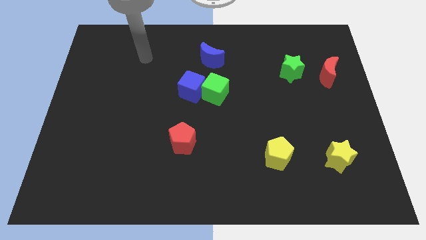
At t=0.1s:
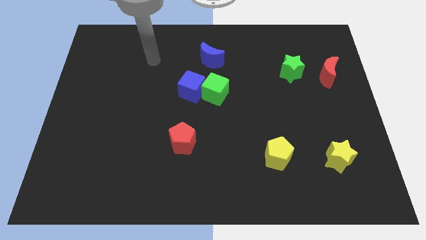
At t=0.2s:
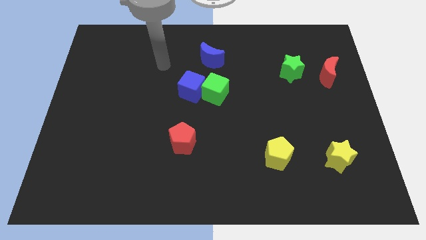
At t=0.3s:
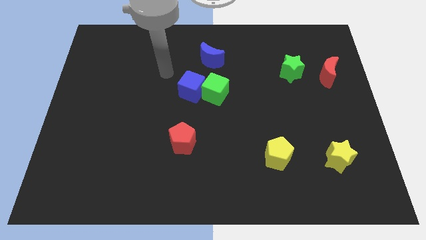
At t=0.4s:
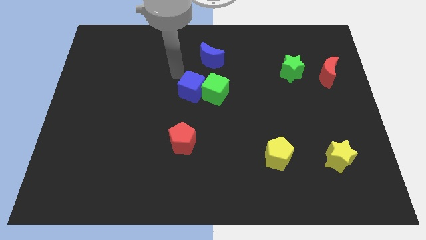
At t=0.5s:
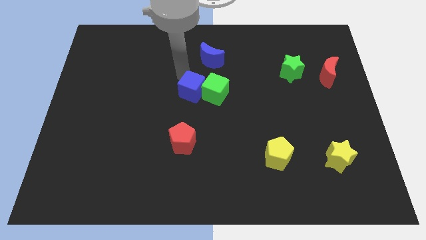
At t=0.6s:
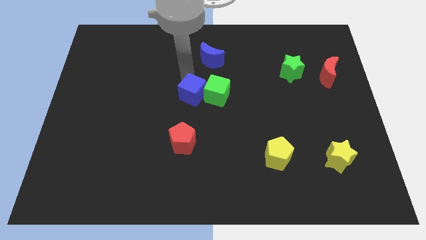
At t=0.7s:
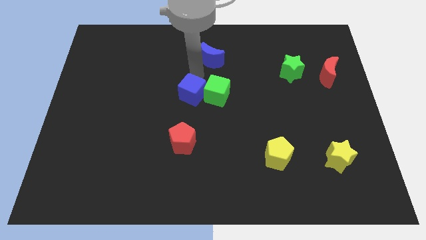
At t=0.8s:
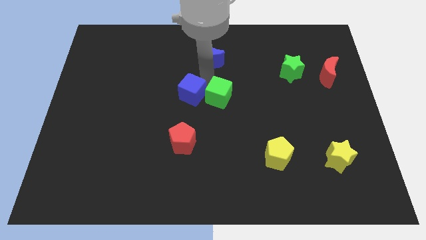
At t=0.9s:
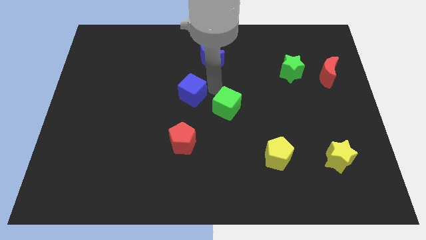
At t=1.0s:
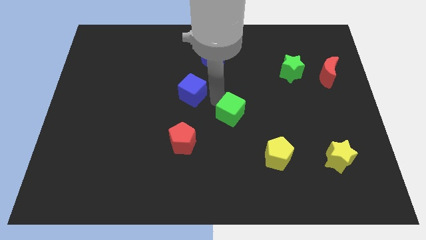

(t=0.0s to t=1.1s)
pull the blue cube apart from the green cube

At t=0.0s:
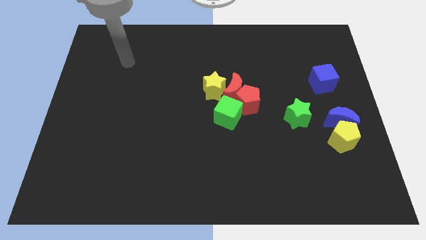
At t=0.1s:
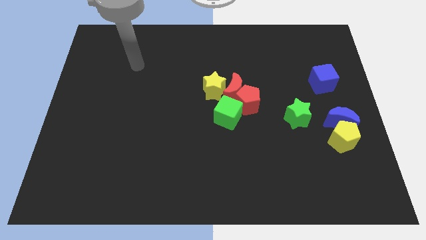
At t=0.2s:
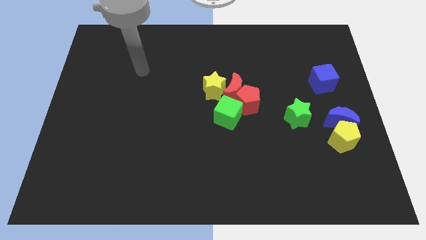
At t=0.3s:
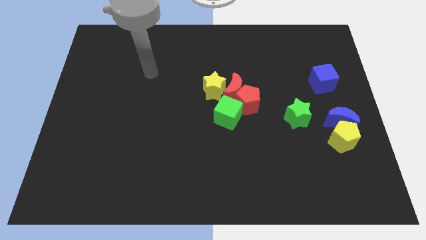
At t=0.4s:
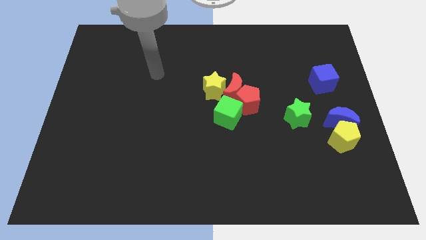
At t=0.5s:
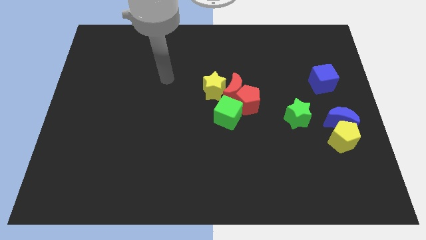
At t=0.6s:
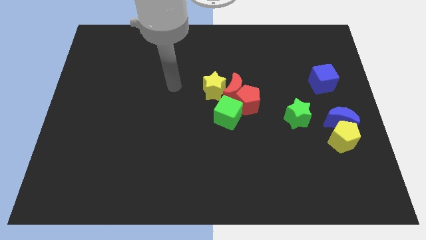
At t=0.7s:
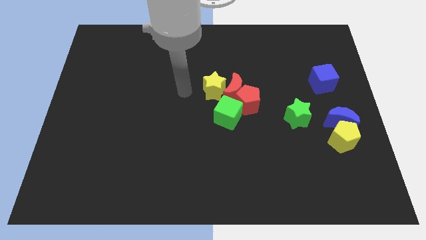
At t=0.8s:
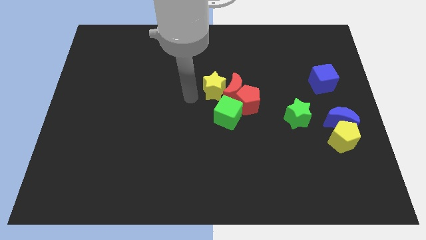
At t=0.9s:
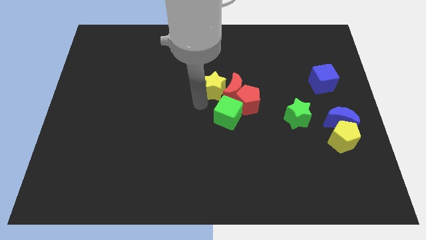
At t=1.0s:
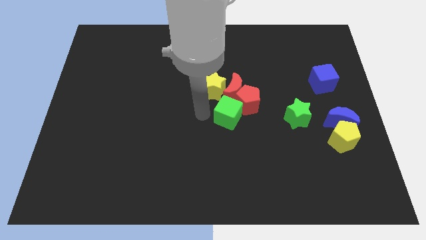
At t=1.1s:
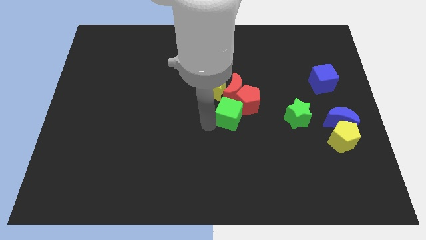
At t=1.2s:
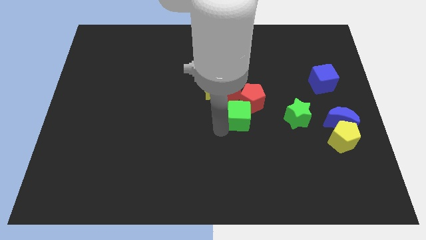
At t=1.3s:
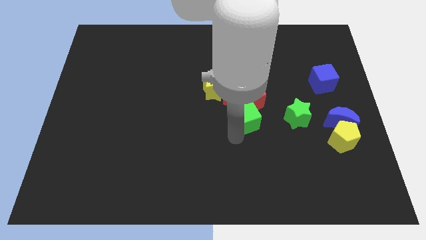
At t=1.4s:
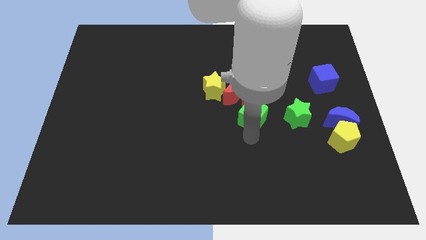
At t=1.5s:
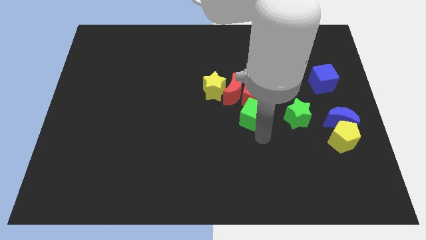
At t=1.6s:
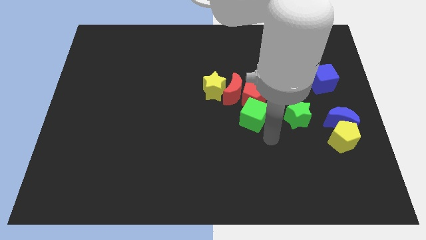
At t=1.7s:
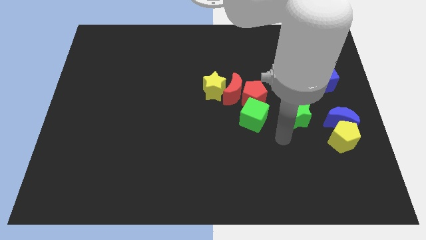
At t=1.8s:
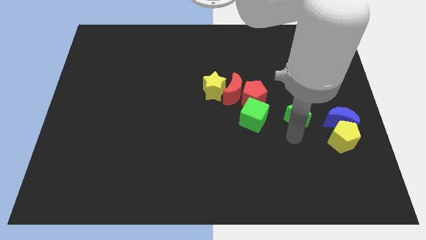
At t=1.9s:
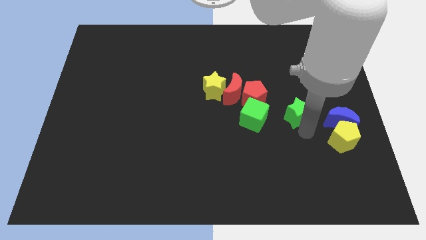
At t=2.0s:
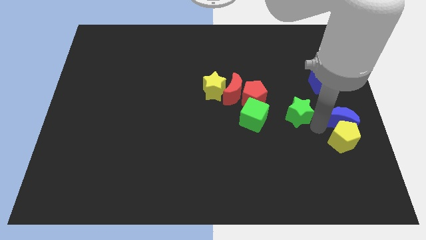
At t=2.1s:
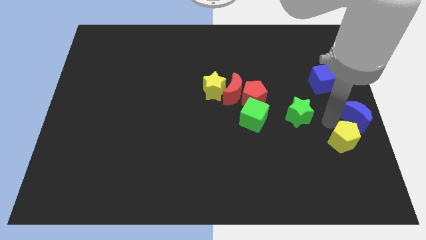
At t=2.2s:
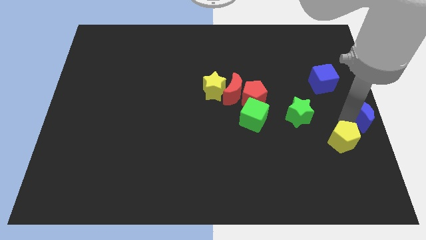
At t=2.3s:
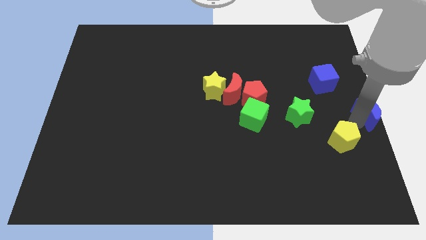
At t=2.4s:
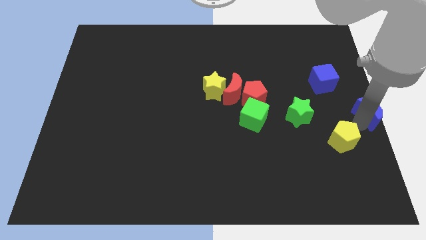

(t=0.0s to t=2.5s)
move the yellow pentagon away from the blue moon

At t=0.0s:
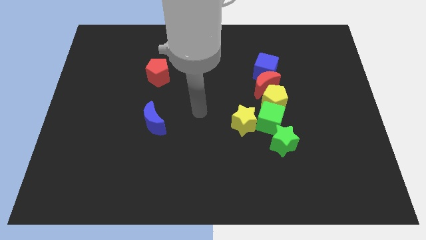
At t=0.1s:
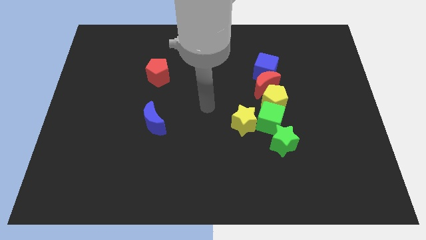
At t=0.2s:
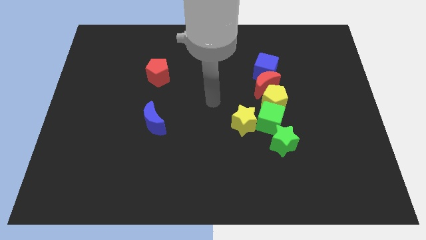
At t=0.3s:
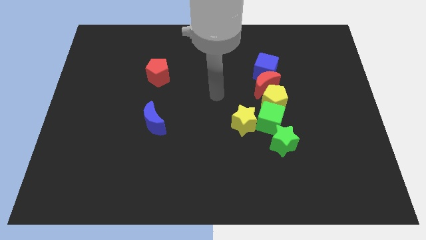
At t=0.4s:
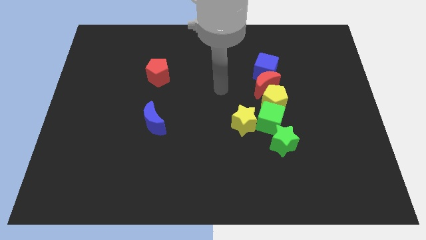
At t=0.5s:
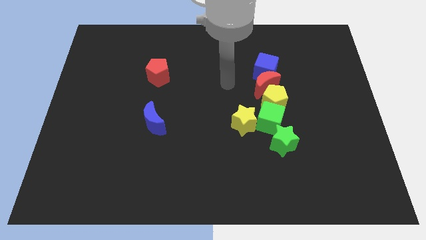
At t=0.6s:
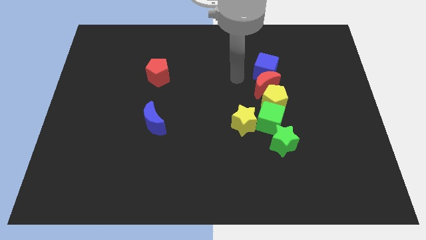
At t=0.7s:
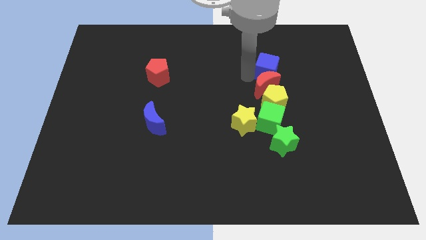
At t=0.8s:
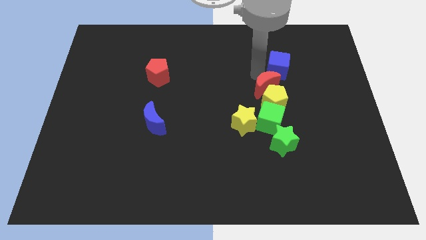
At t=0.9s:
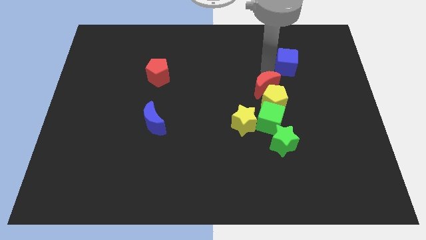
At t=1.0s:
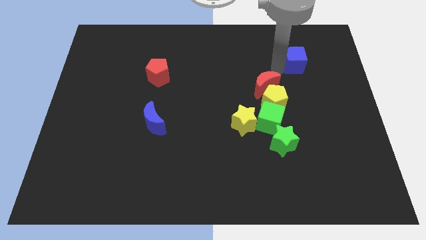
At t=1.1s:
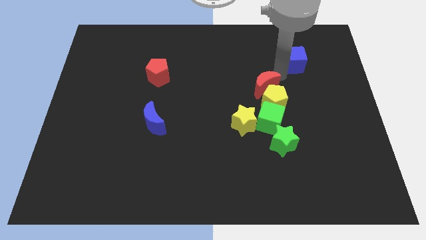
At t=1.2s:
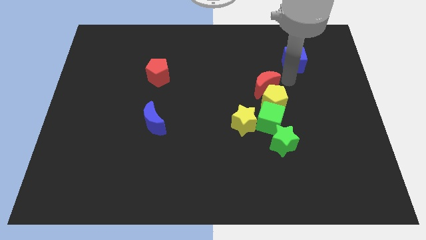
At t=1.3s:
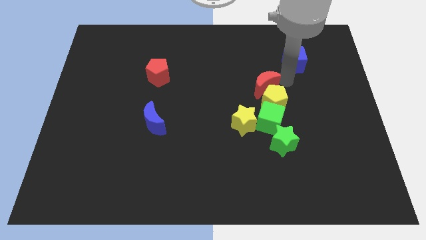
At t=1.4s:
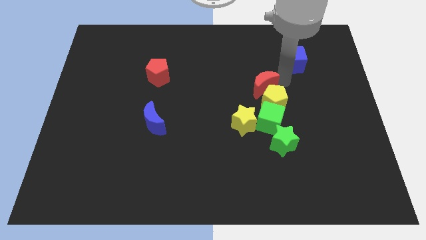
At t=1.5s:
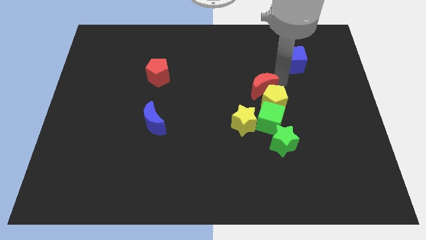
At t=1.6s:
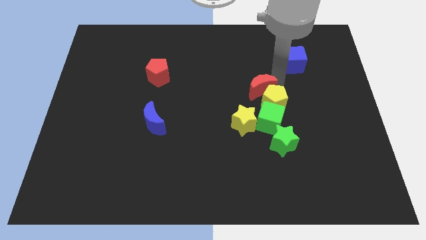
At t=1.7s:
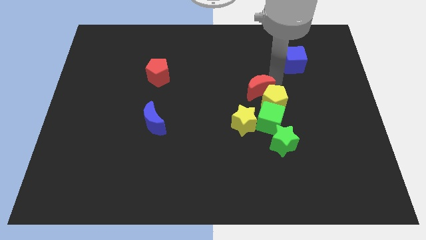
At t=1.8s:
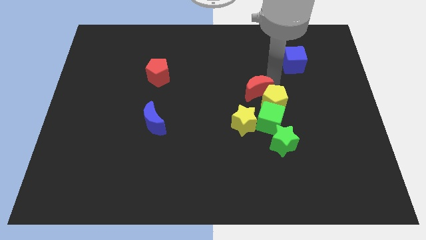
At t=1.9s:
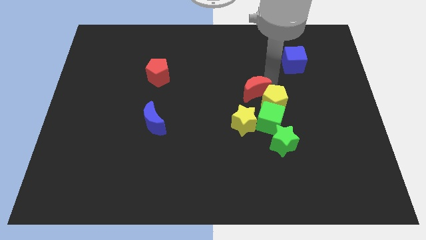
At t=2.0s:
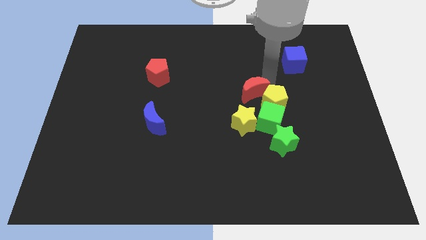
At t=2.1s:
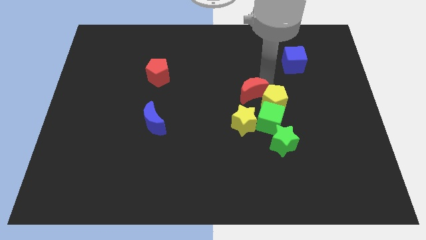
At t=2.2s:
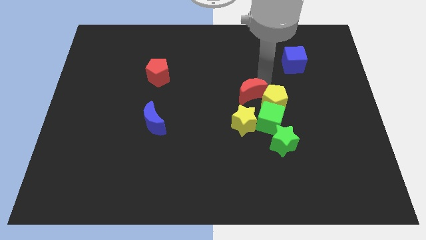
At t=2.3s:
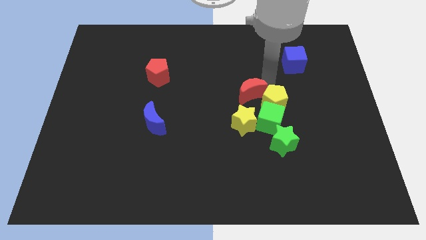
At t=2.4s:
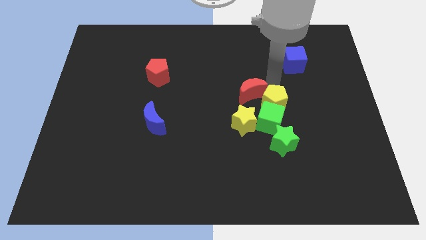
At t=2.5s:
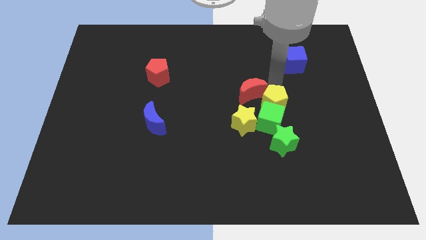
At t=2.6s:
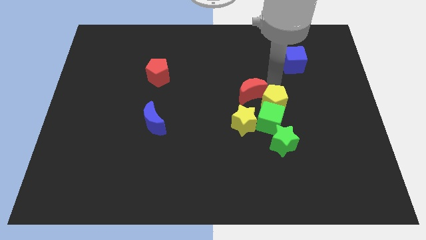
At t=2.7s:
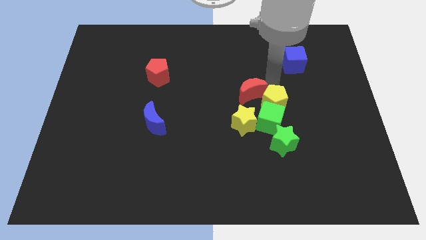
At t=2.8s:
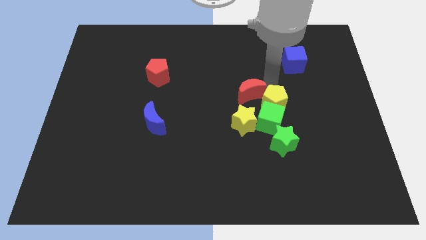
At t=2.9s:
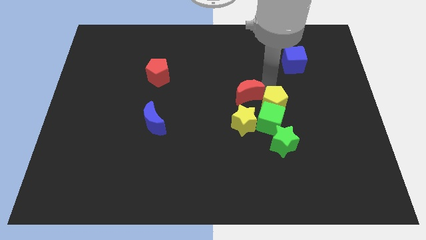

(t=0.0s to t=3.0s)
move the red moon away from the yellow pentagon and blue cube

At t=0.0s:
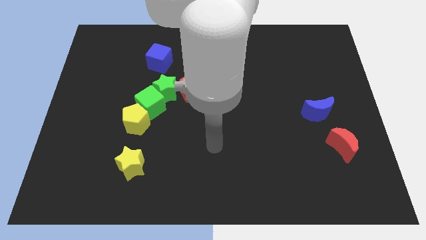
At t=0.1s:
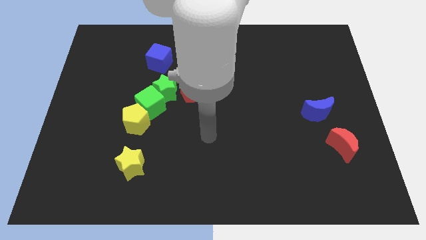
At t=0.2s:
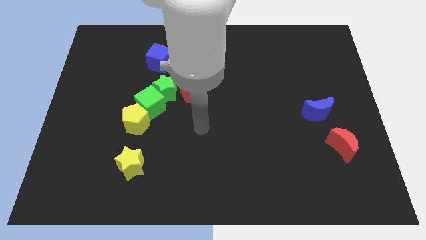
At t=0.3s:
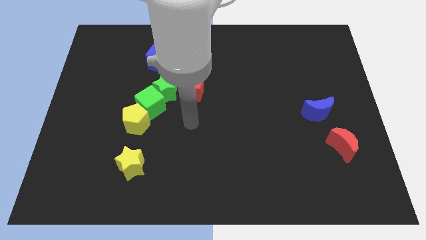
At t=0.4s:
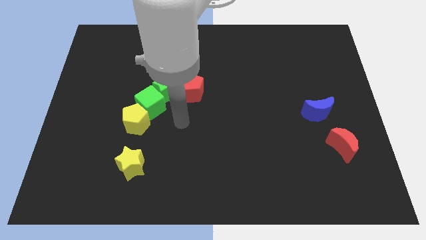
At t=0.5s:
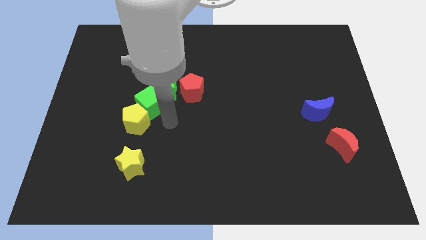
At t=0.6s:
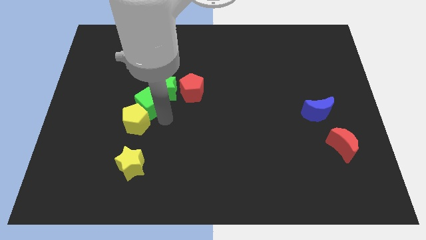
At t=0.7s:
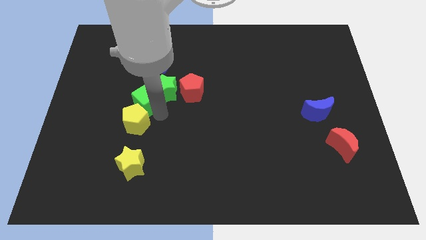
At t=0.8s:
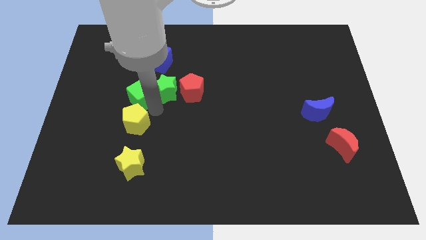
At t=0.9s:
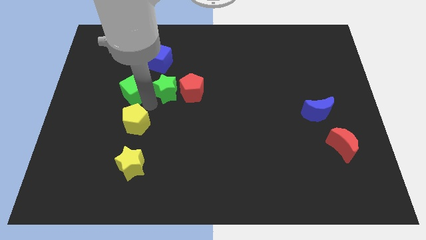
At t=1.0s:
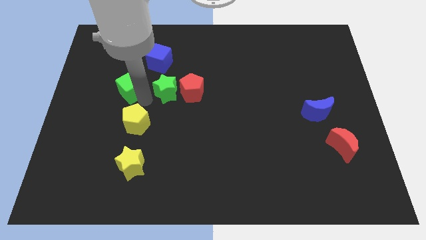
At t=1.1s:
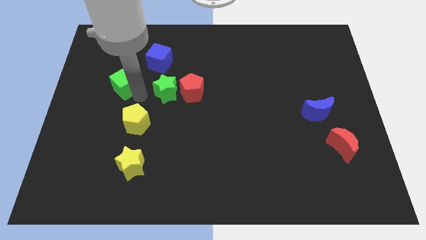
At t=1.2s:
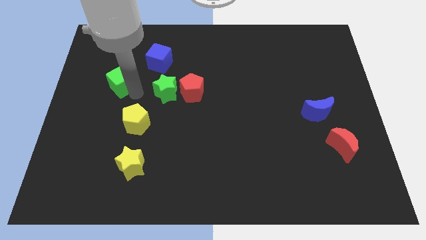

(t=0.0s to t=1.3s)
pull the green cube apart from the green star and yellow pentagon

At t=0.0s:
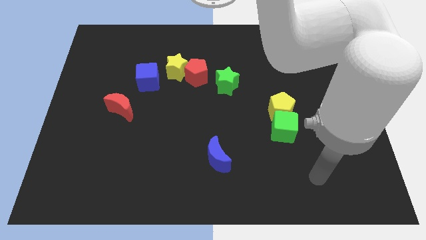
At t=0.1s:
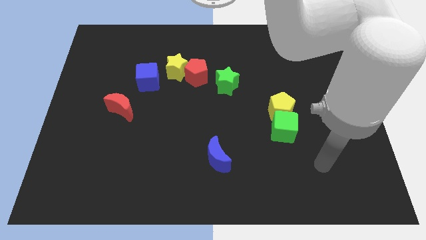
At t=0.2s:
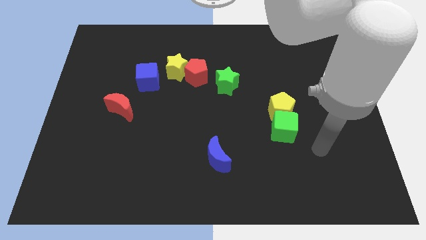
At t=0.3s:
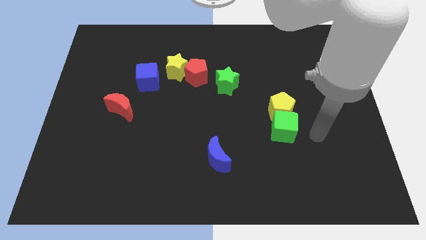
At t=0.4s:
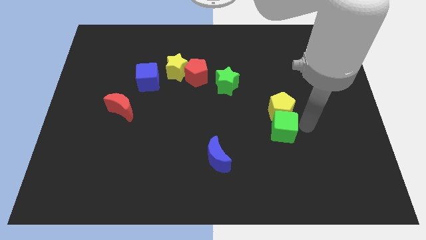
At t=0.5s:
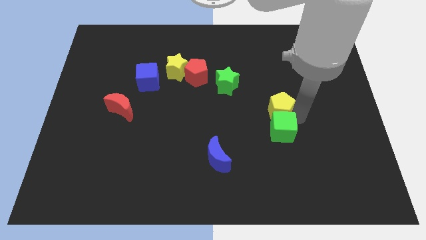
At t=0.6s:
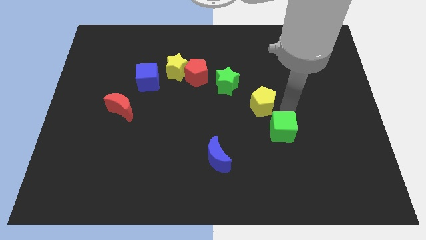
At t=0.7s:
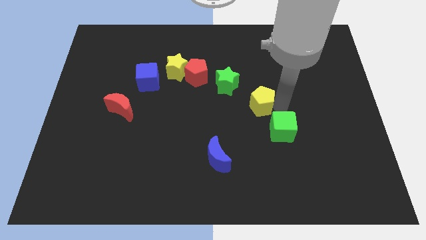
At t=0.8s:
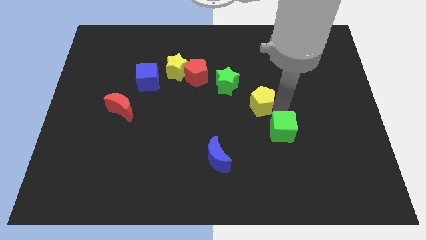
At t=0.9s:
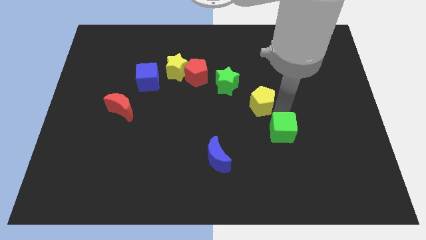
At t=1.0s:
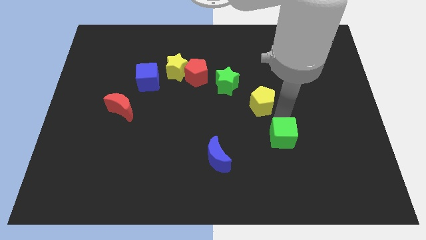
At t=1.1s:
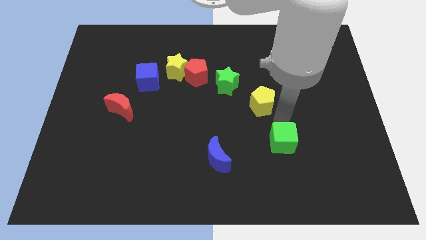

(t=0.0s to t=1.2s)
move the green cube away from the yellow pentagon
